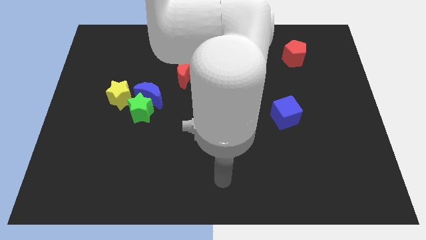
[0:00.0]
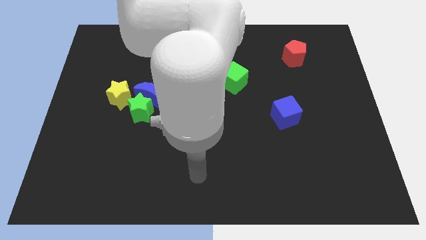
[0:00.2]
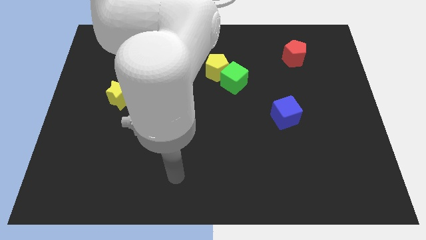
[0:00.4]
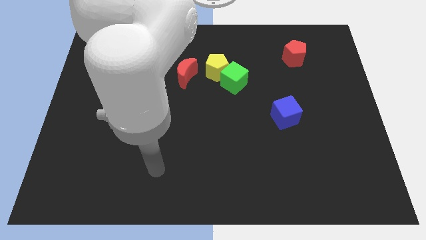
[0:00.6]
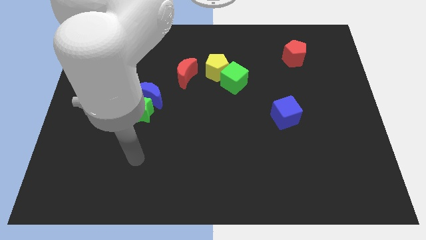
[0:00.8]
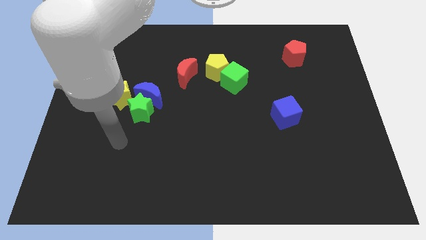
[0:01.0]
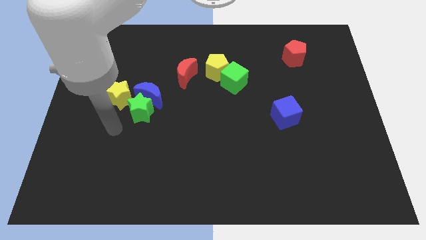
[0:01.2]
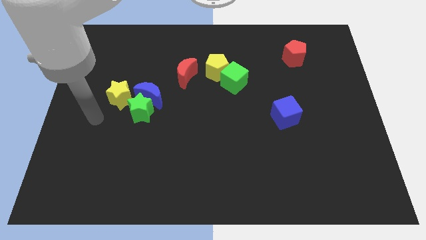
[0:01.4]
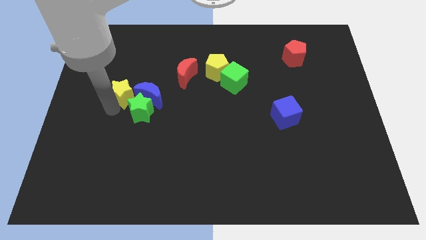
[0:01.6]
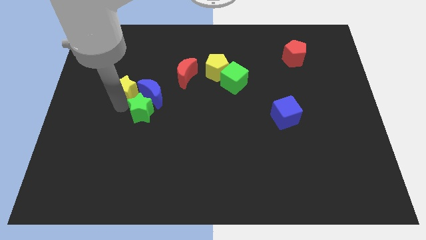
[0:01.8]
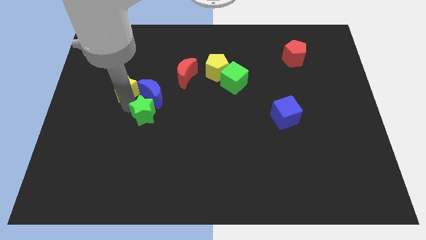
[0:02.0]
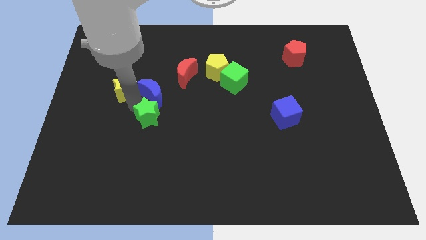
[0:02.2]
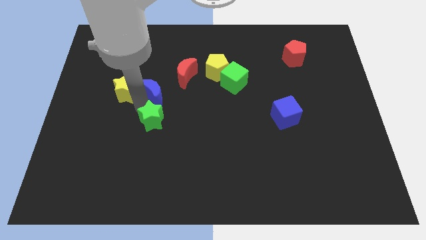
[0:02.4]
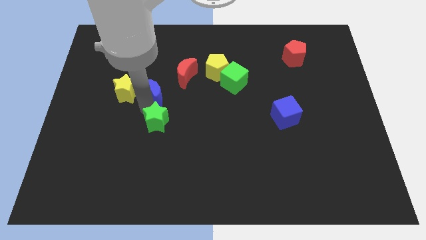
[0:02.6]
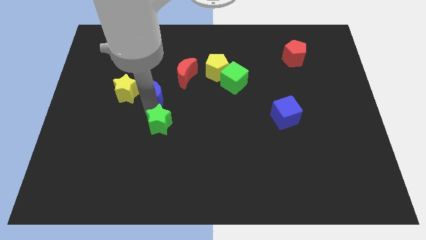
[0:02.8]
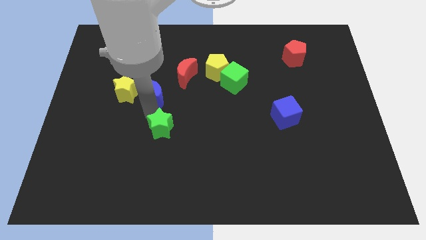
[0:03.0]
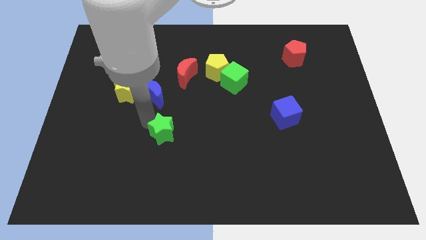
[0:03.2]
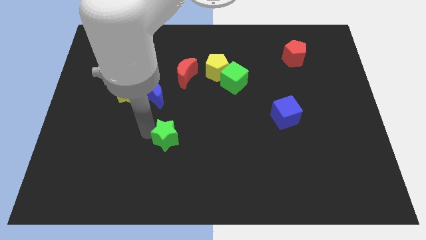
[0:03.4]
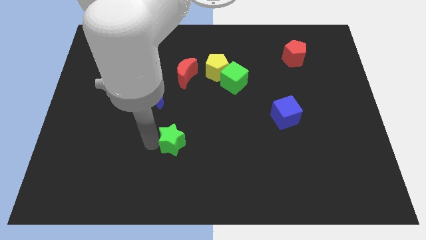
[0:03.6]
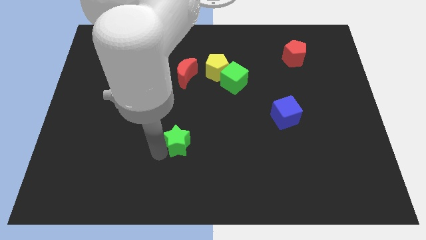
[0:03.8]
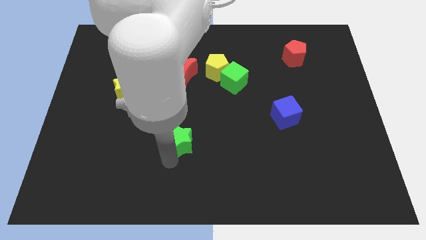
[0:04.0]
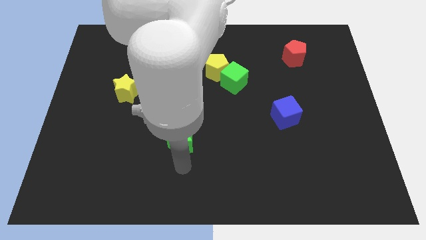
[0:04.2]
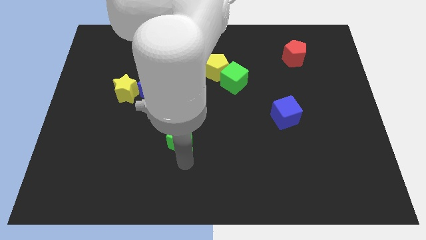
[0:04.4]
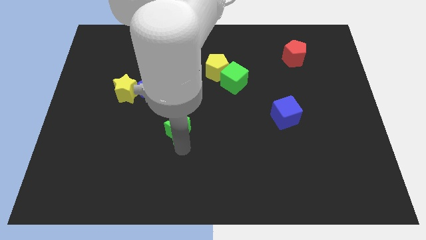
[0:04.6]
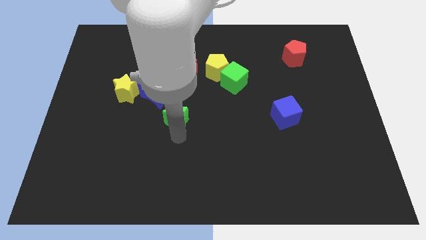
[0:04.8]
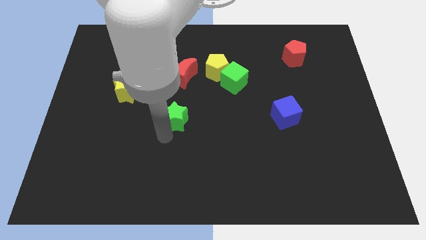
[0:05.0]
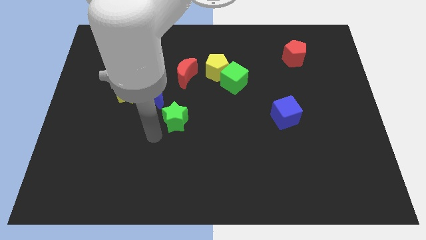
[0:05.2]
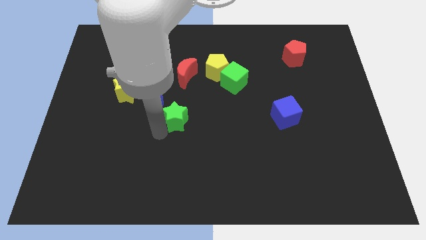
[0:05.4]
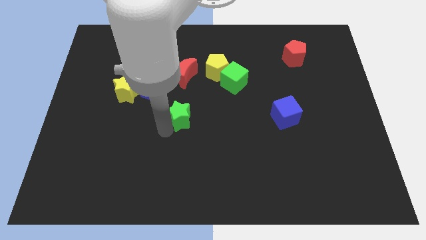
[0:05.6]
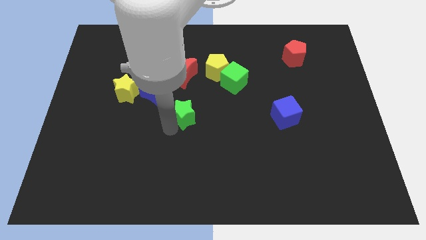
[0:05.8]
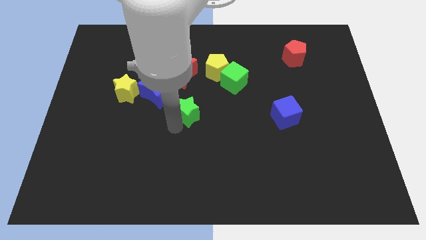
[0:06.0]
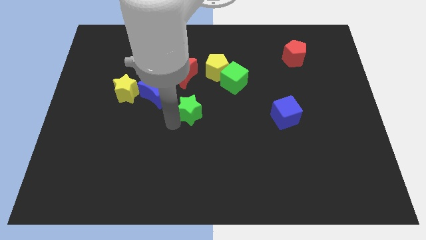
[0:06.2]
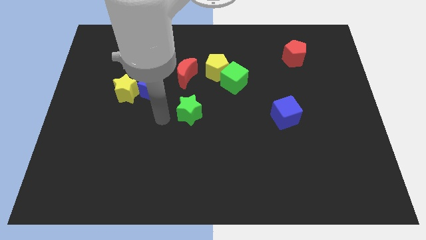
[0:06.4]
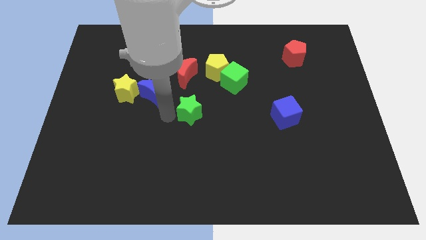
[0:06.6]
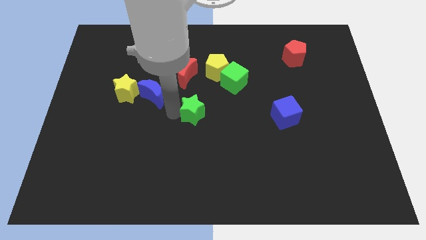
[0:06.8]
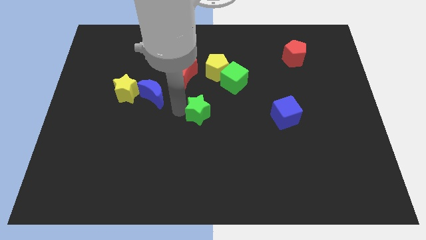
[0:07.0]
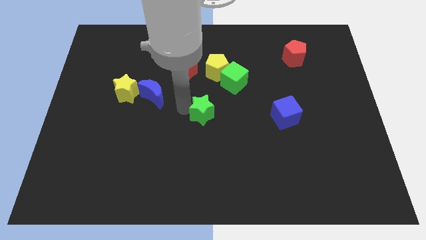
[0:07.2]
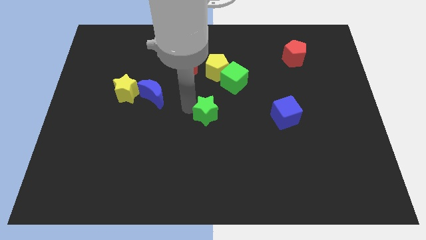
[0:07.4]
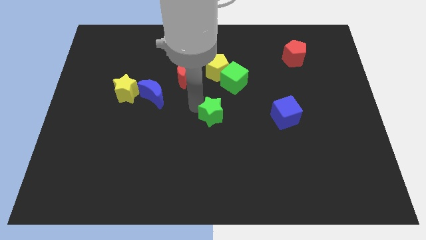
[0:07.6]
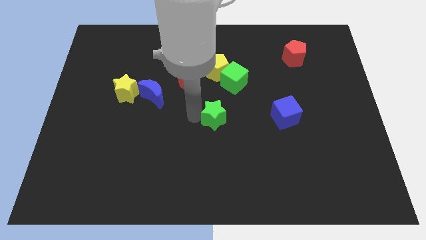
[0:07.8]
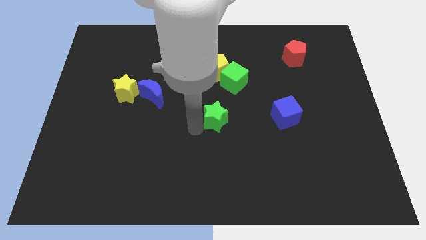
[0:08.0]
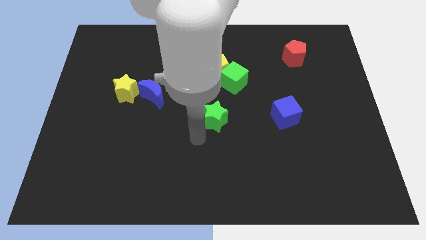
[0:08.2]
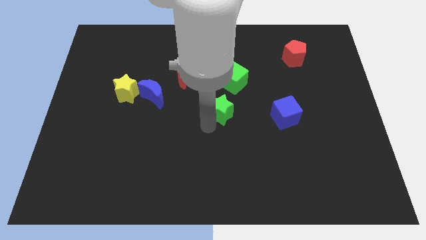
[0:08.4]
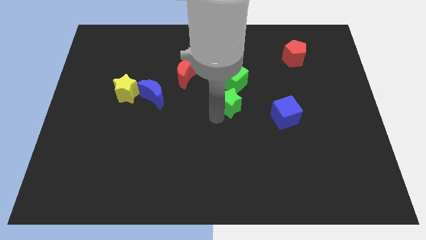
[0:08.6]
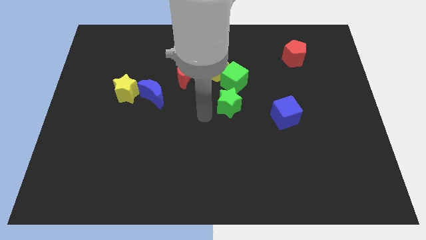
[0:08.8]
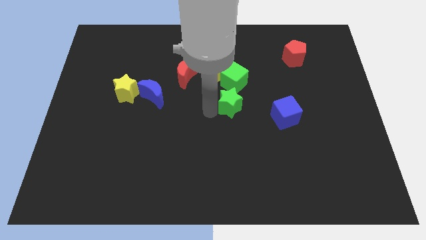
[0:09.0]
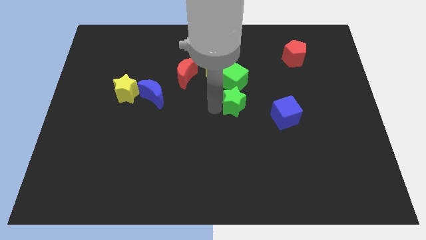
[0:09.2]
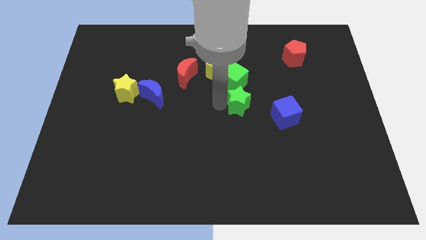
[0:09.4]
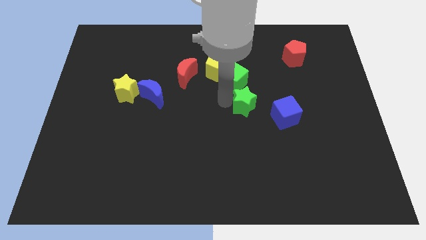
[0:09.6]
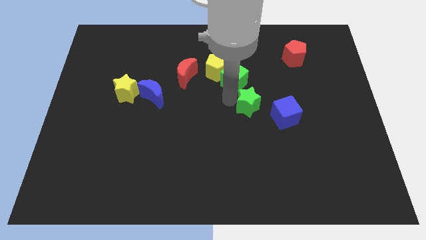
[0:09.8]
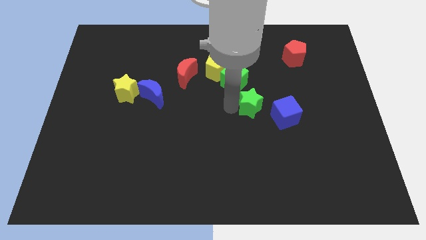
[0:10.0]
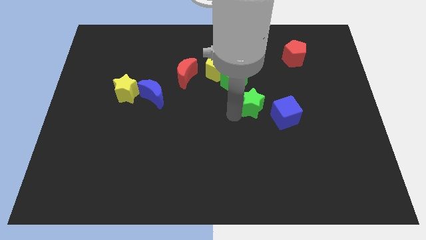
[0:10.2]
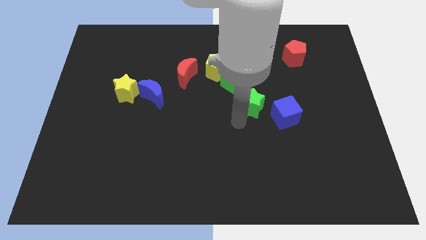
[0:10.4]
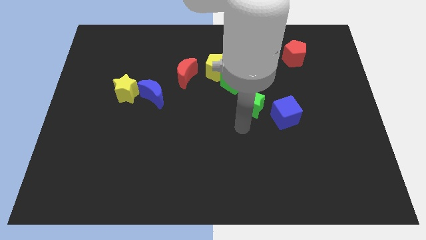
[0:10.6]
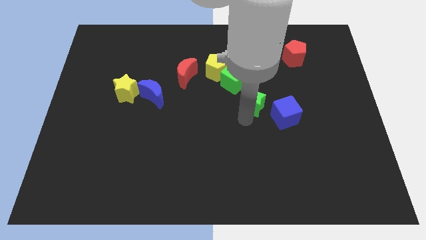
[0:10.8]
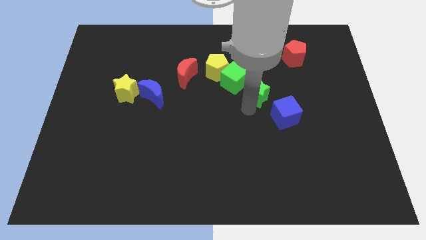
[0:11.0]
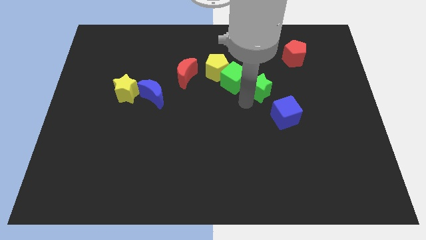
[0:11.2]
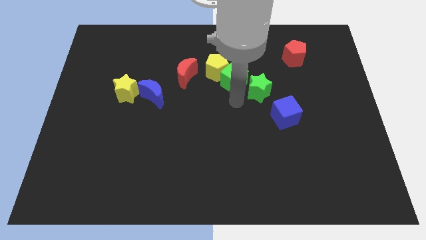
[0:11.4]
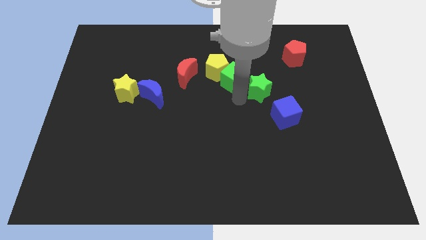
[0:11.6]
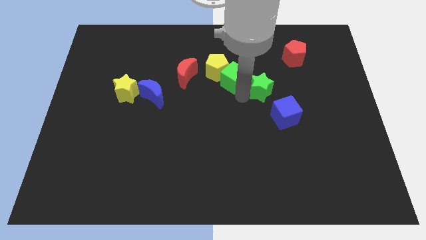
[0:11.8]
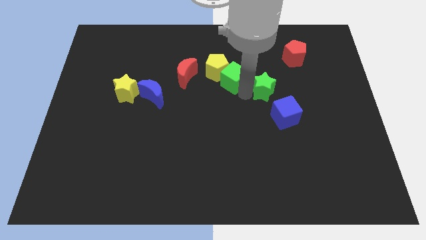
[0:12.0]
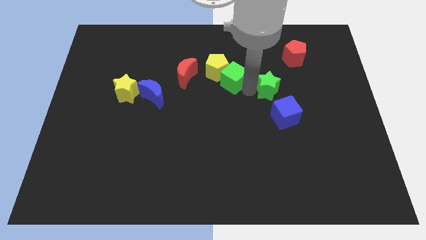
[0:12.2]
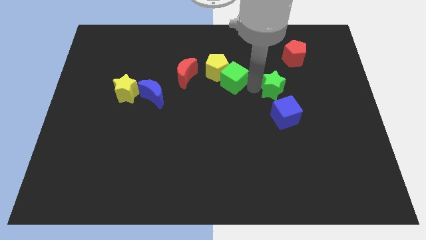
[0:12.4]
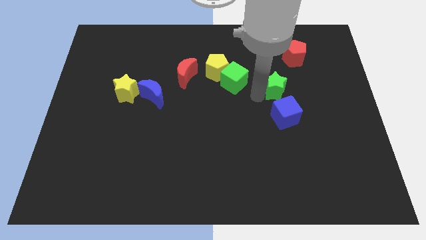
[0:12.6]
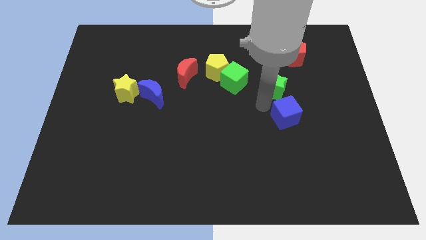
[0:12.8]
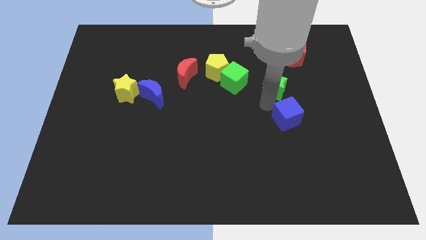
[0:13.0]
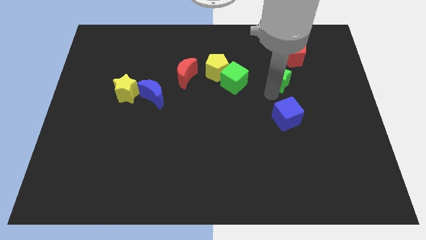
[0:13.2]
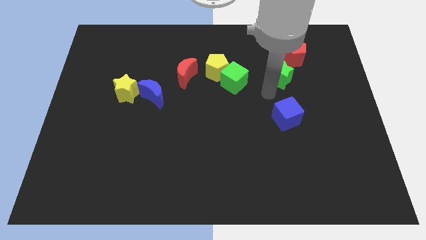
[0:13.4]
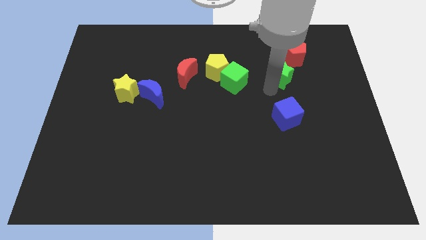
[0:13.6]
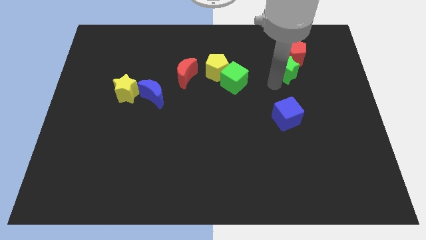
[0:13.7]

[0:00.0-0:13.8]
slide the green star towards the red pentagon
